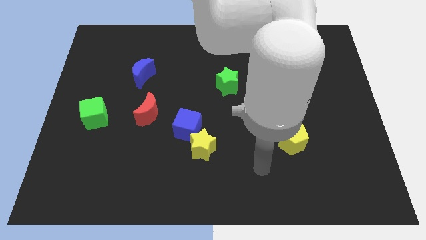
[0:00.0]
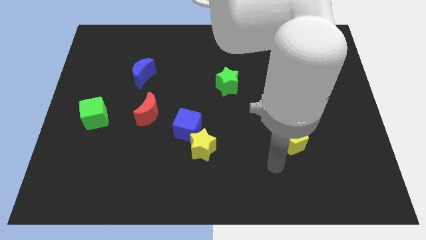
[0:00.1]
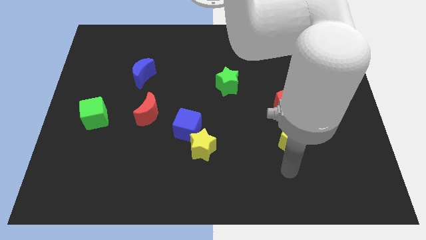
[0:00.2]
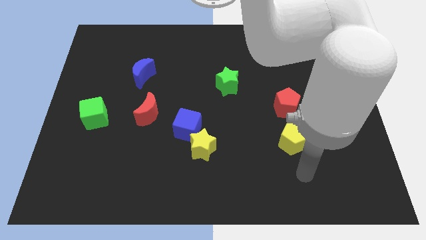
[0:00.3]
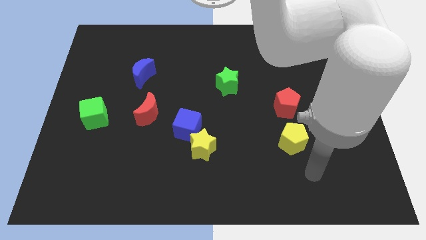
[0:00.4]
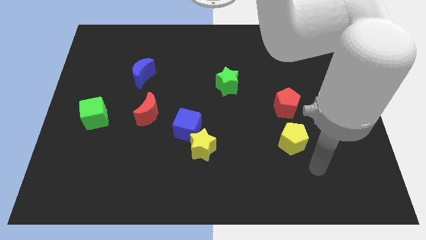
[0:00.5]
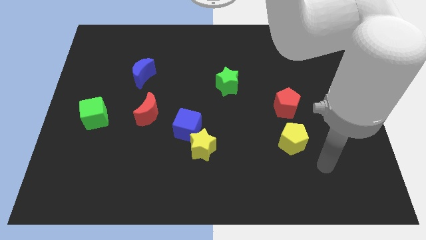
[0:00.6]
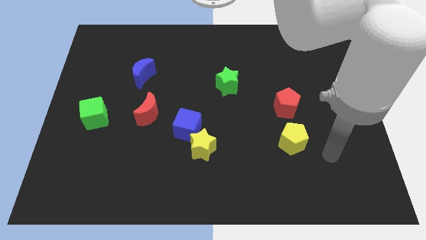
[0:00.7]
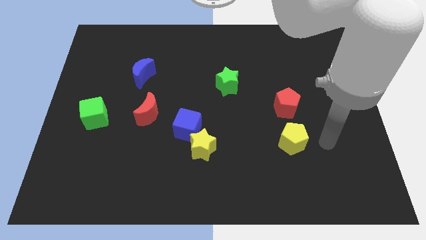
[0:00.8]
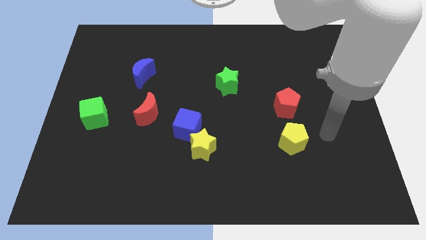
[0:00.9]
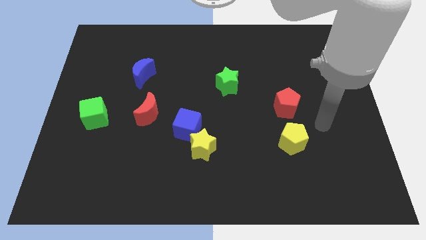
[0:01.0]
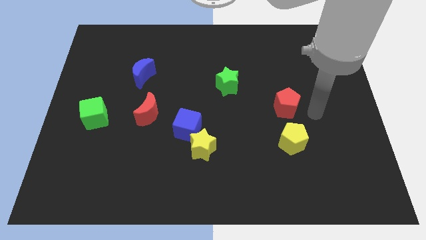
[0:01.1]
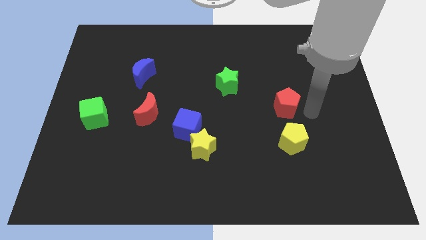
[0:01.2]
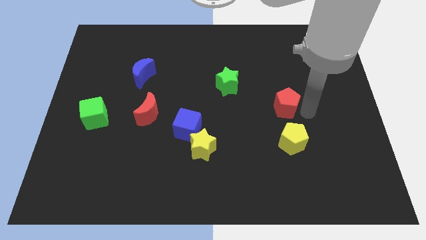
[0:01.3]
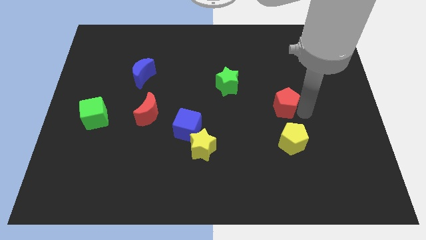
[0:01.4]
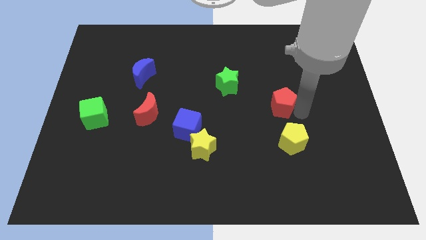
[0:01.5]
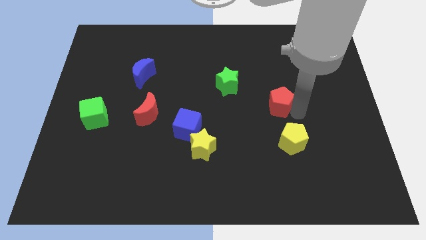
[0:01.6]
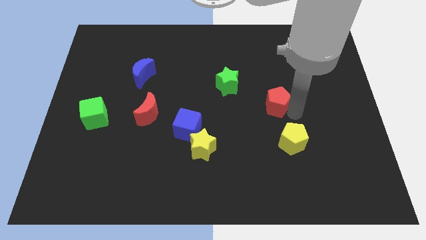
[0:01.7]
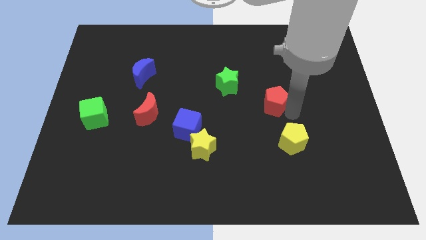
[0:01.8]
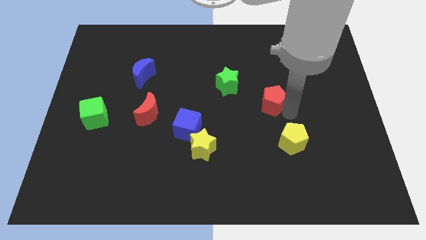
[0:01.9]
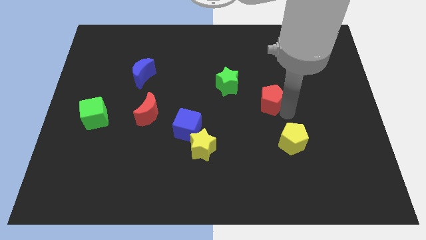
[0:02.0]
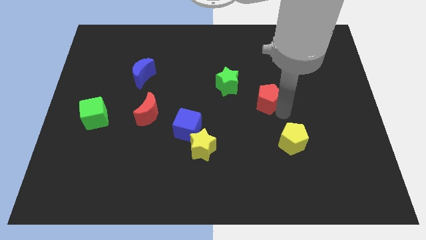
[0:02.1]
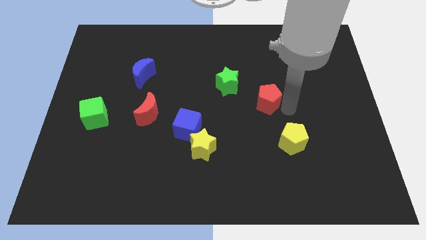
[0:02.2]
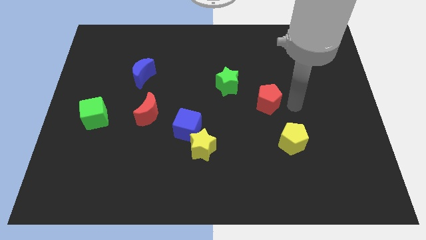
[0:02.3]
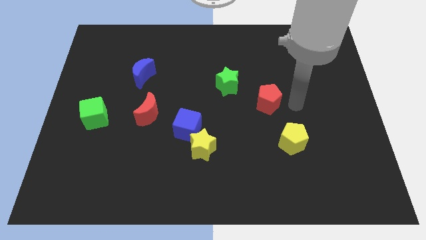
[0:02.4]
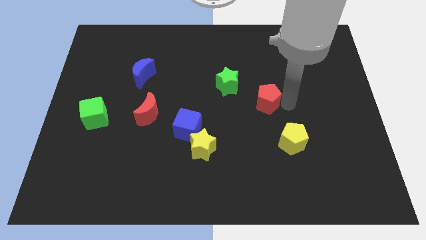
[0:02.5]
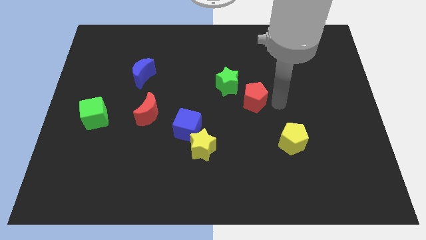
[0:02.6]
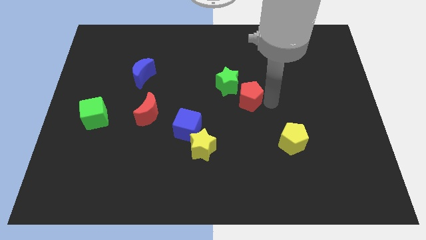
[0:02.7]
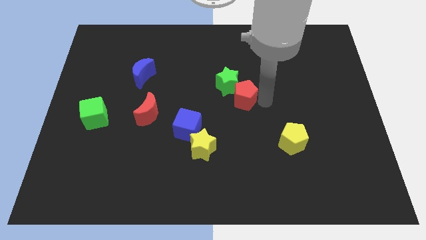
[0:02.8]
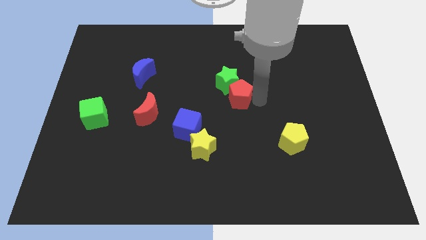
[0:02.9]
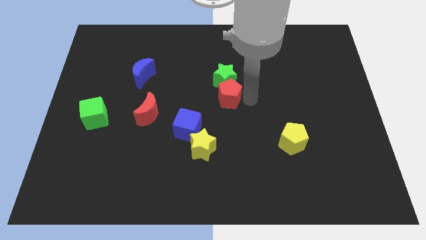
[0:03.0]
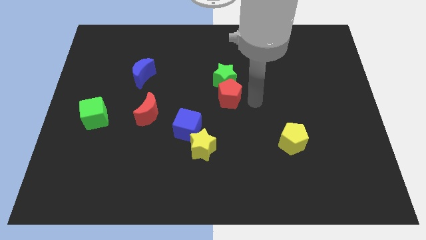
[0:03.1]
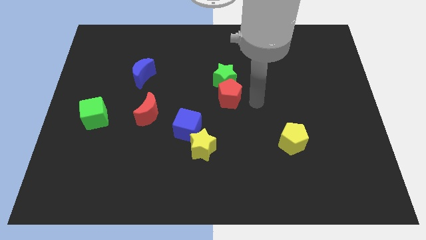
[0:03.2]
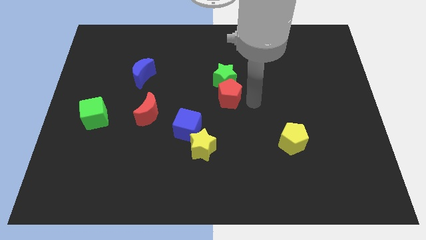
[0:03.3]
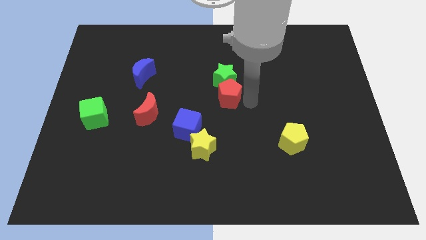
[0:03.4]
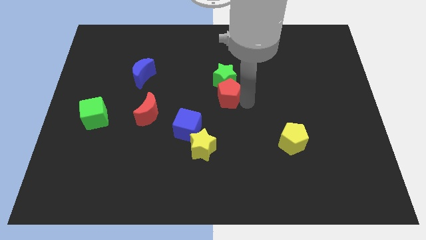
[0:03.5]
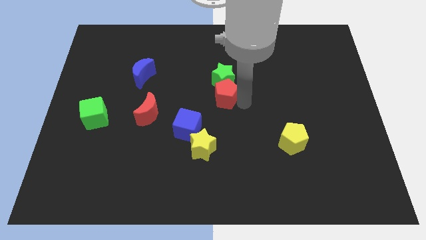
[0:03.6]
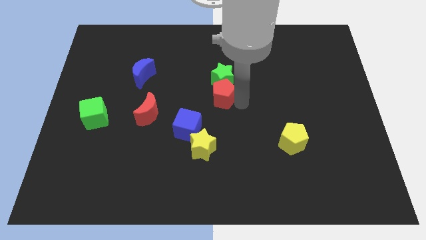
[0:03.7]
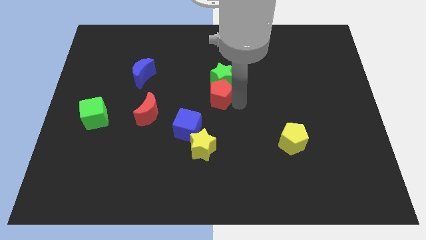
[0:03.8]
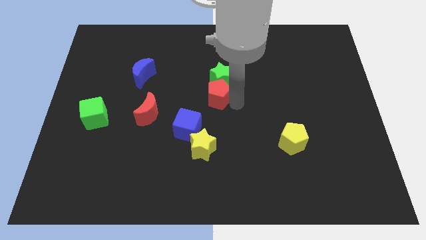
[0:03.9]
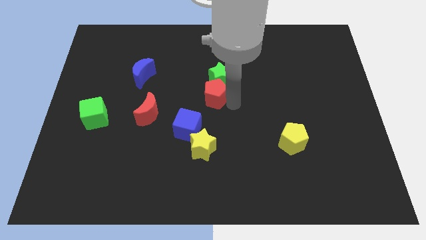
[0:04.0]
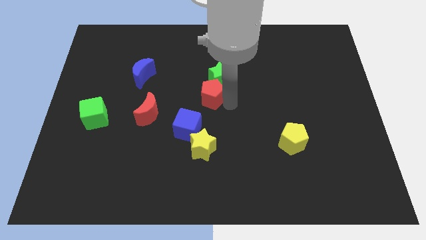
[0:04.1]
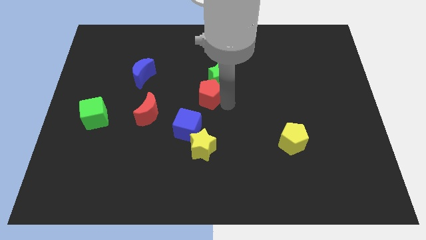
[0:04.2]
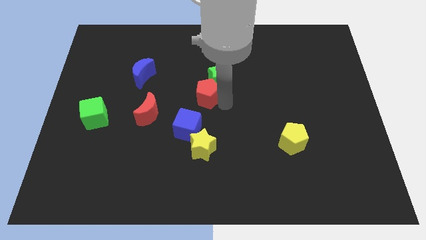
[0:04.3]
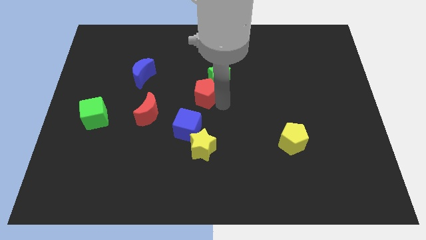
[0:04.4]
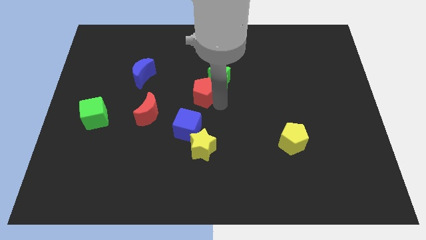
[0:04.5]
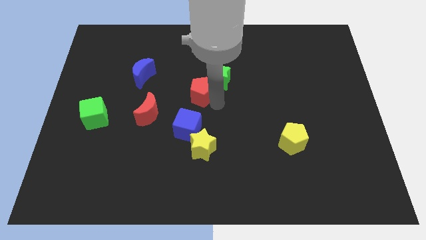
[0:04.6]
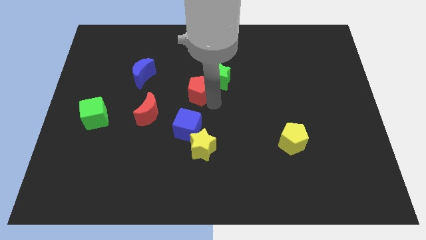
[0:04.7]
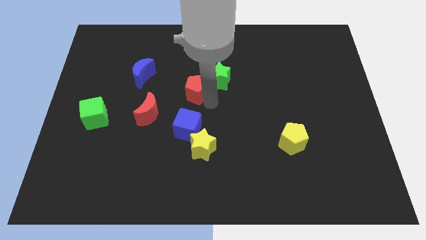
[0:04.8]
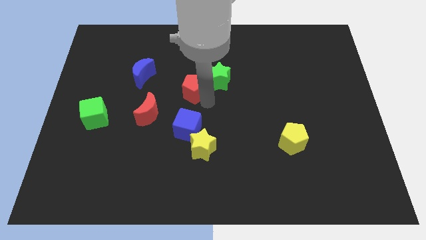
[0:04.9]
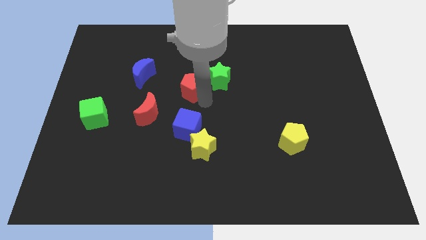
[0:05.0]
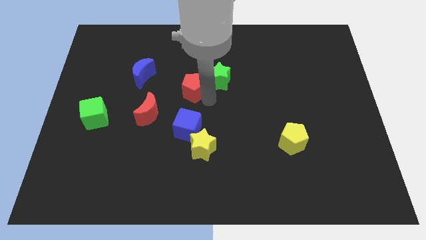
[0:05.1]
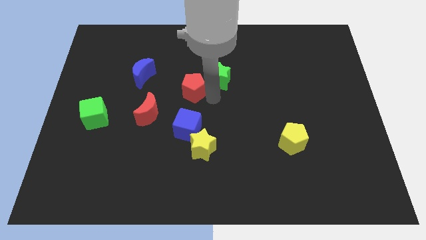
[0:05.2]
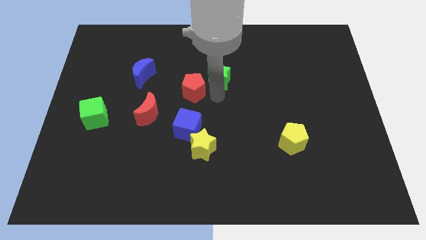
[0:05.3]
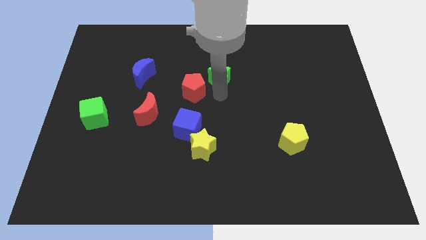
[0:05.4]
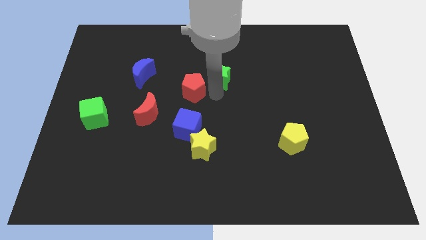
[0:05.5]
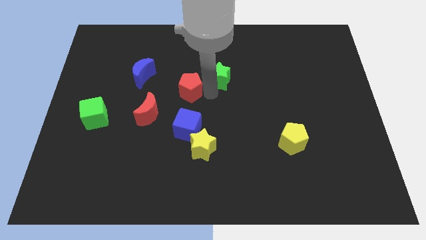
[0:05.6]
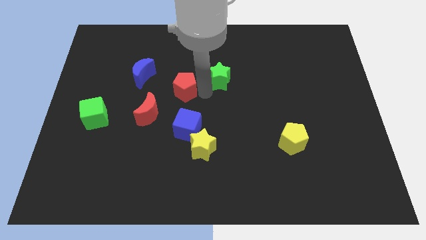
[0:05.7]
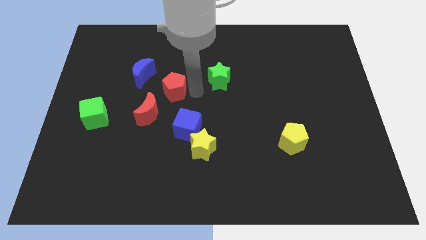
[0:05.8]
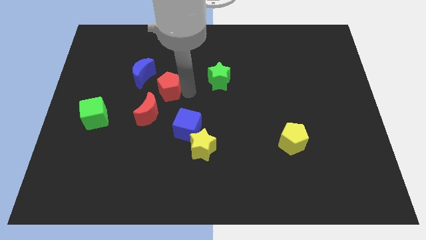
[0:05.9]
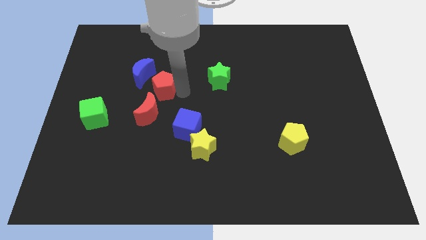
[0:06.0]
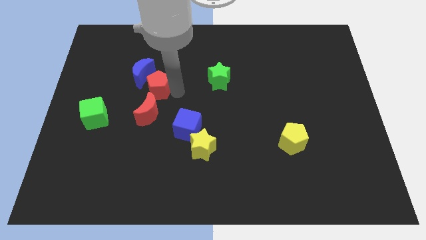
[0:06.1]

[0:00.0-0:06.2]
push the red pentagon close to the blue moon

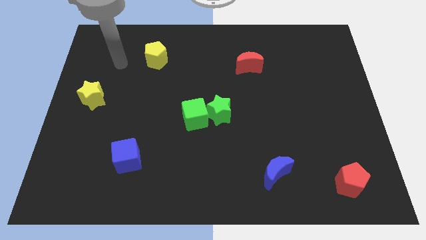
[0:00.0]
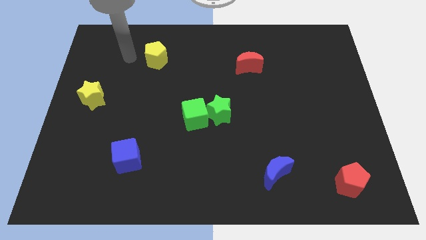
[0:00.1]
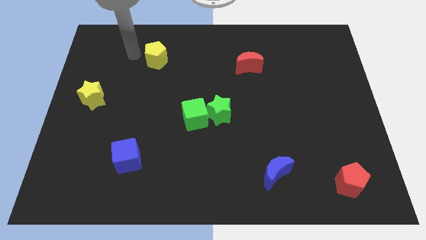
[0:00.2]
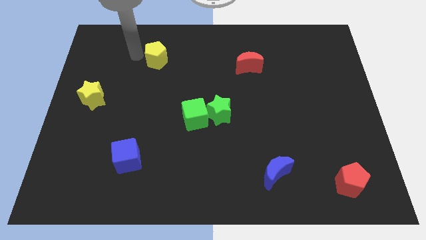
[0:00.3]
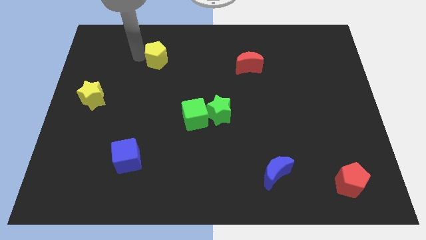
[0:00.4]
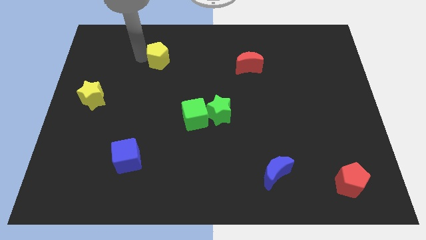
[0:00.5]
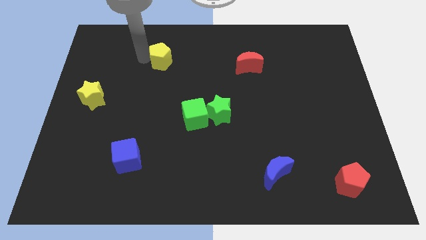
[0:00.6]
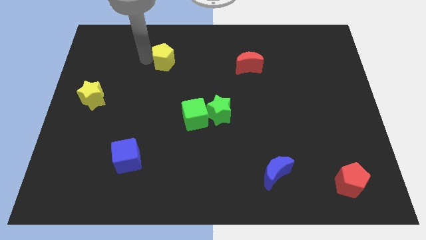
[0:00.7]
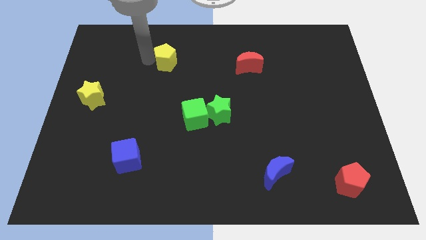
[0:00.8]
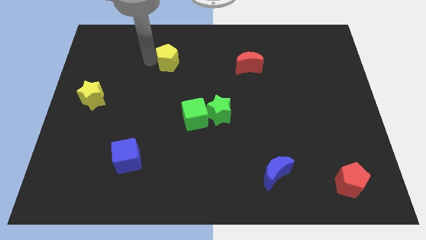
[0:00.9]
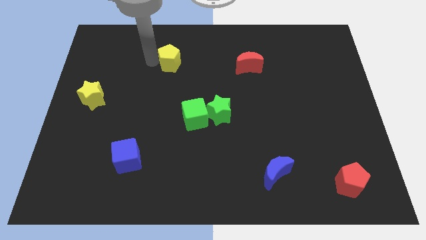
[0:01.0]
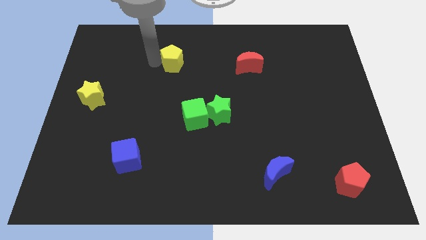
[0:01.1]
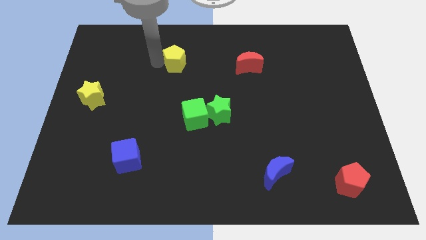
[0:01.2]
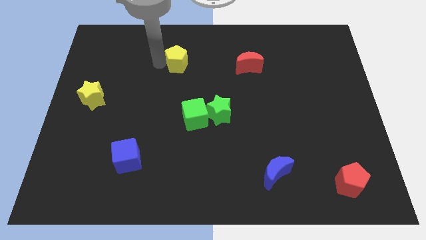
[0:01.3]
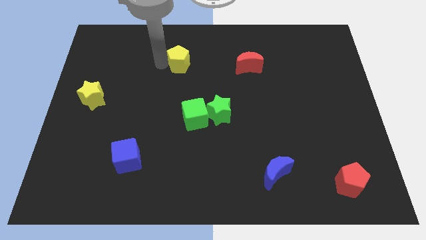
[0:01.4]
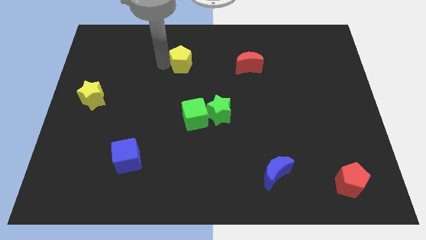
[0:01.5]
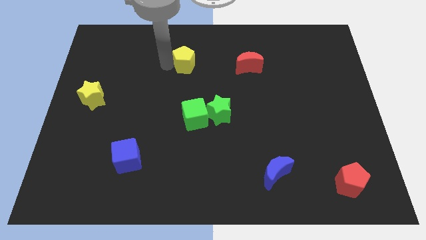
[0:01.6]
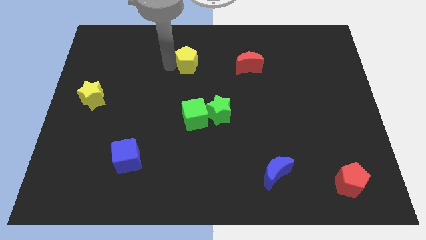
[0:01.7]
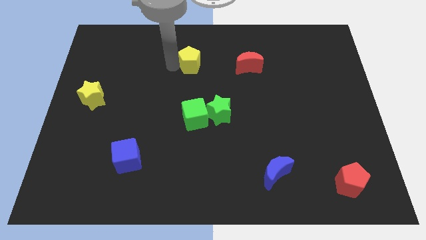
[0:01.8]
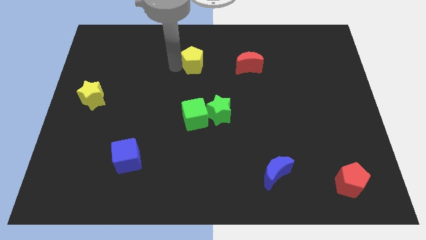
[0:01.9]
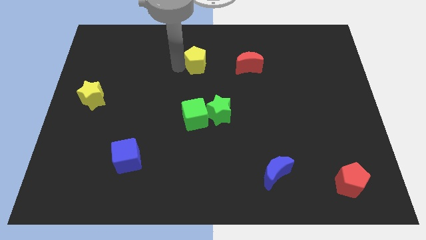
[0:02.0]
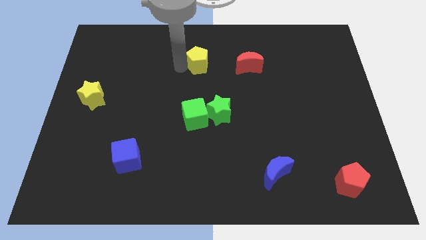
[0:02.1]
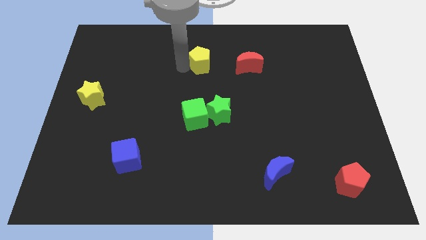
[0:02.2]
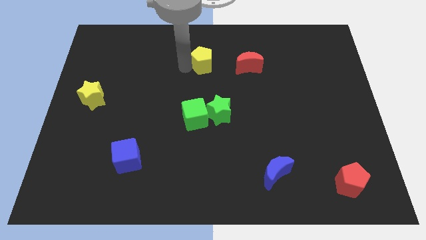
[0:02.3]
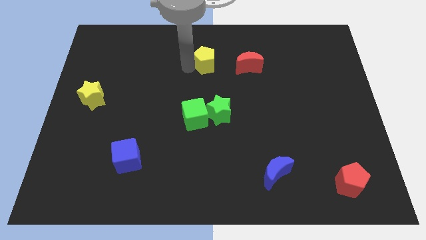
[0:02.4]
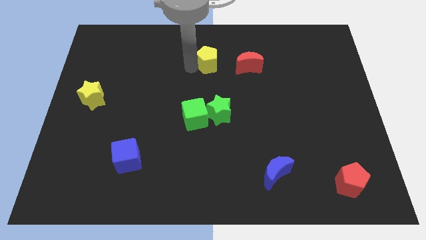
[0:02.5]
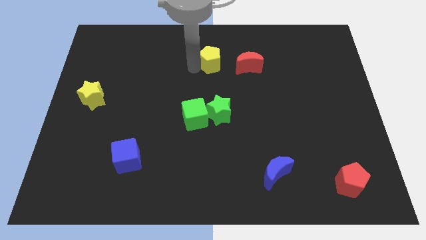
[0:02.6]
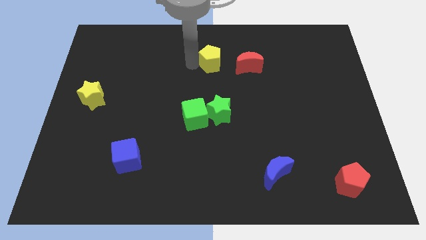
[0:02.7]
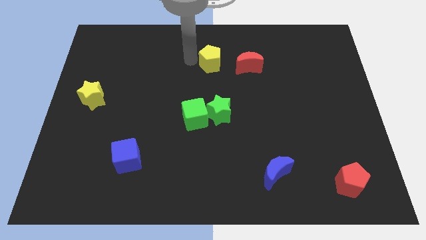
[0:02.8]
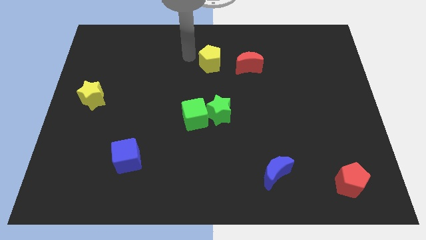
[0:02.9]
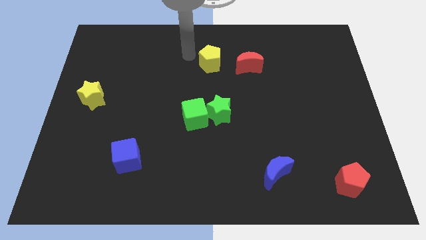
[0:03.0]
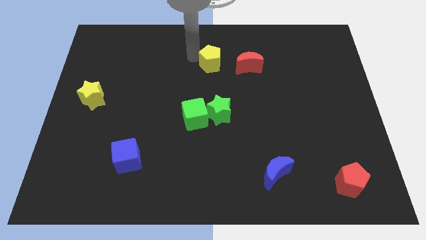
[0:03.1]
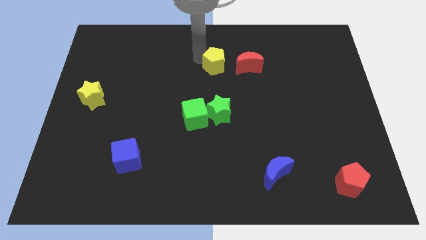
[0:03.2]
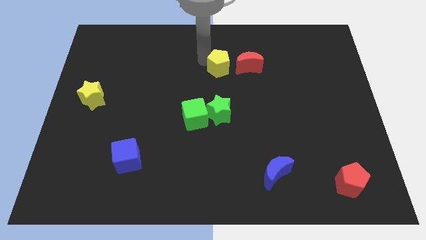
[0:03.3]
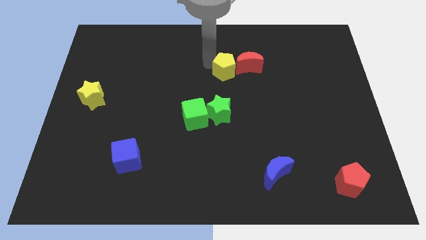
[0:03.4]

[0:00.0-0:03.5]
push the yellow pentagon close to the red moon
